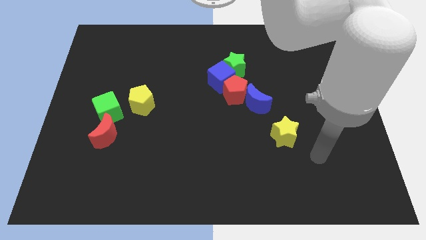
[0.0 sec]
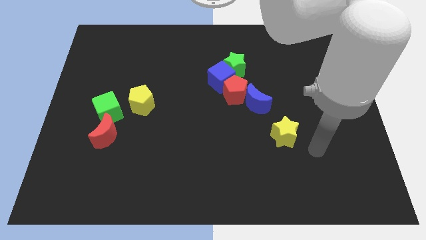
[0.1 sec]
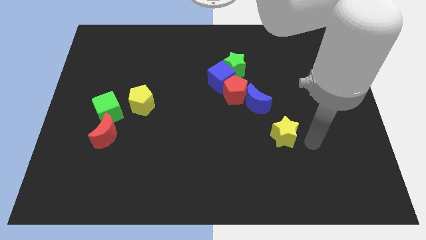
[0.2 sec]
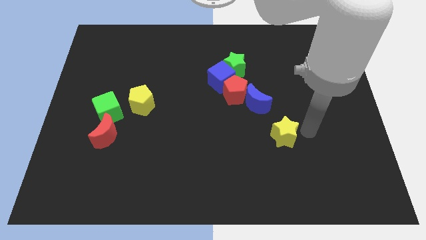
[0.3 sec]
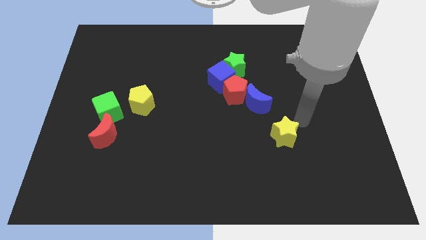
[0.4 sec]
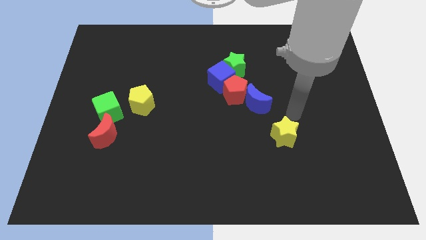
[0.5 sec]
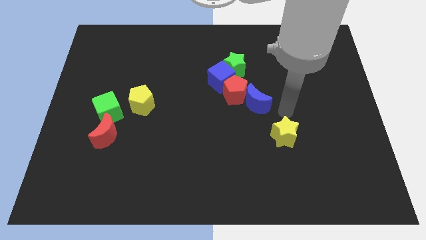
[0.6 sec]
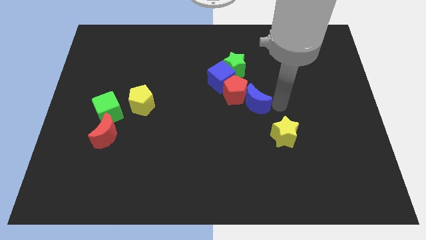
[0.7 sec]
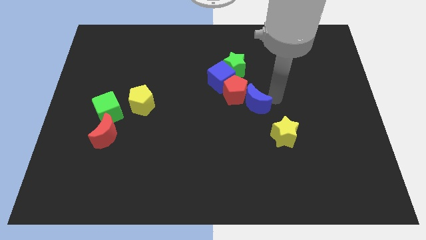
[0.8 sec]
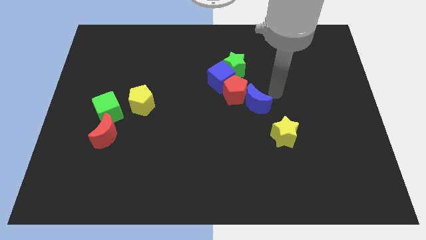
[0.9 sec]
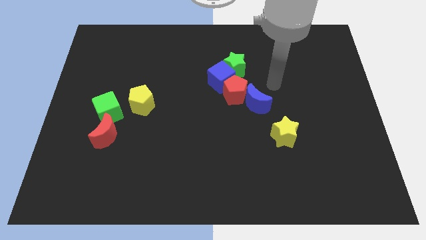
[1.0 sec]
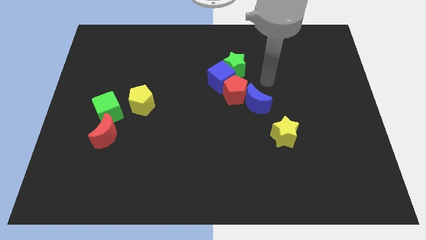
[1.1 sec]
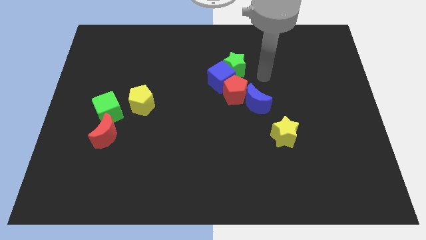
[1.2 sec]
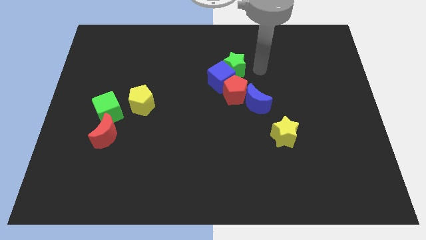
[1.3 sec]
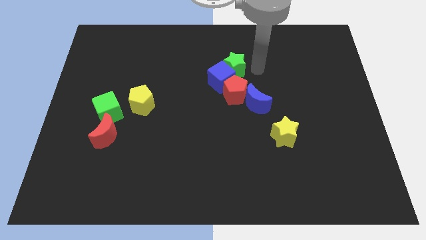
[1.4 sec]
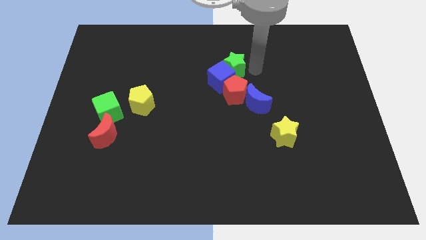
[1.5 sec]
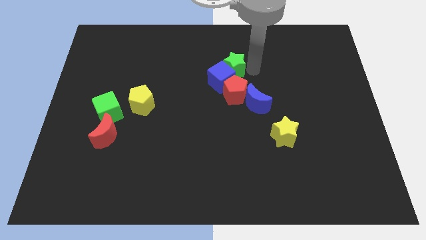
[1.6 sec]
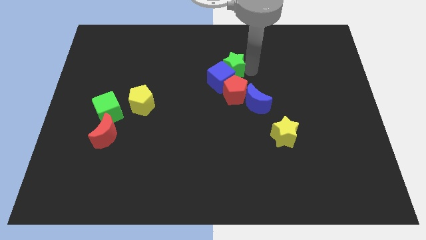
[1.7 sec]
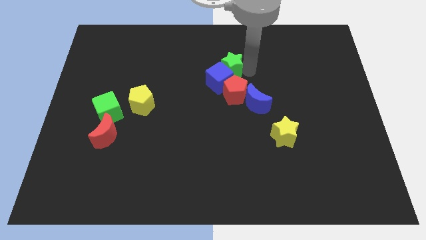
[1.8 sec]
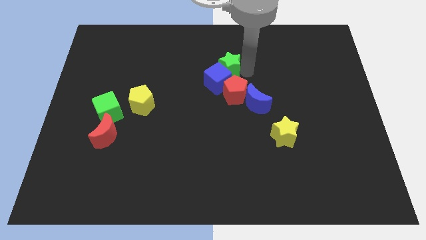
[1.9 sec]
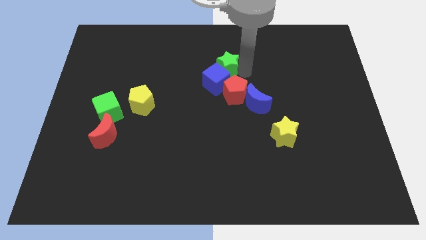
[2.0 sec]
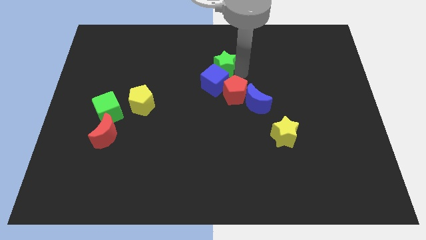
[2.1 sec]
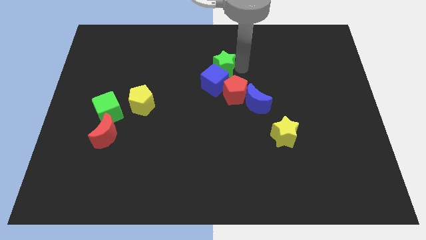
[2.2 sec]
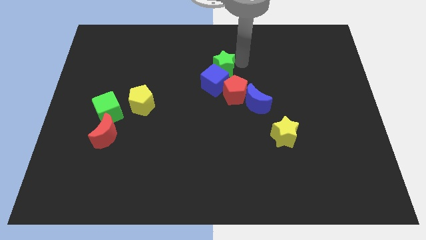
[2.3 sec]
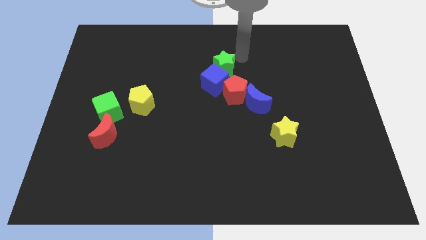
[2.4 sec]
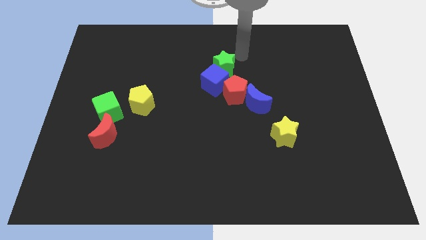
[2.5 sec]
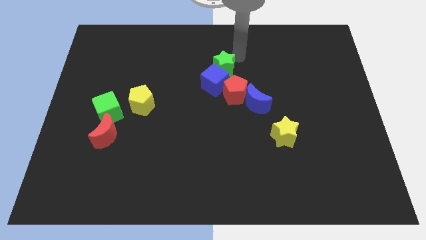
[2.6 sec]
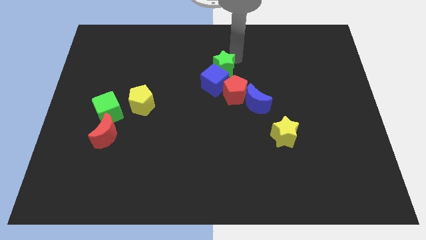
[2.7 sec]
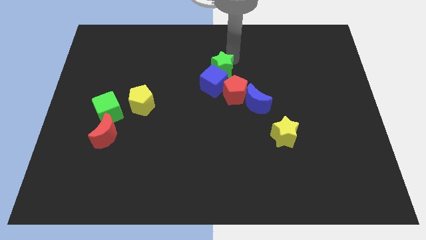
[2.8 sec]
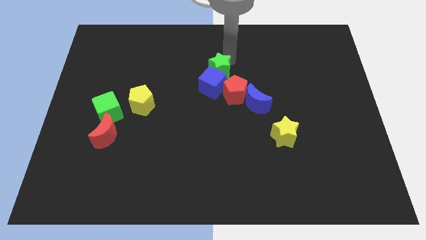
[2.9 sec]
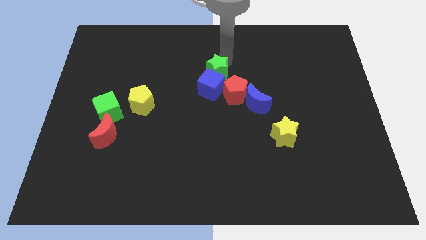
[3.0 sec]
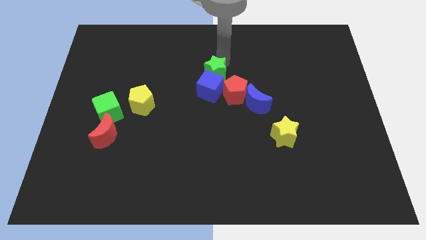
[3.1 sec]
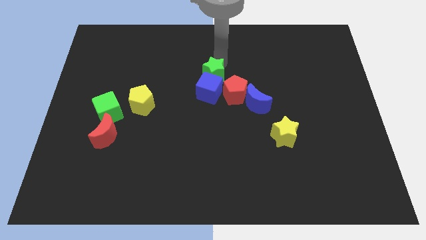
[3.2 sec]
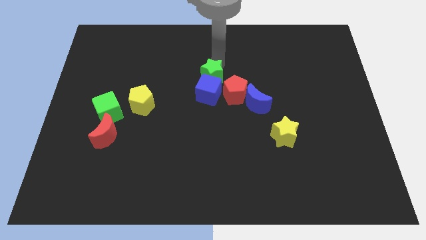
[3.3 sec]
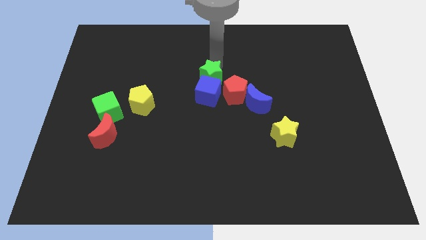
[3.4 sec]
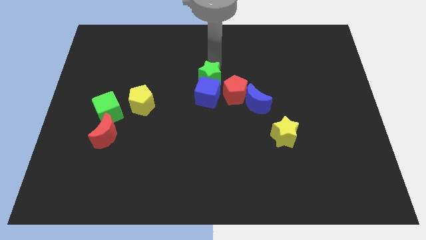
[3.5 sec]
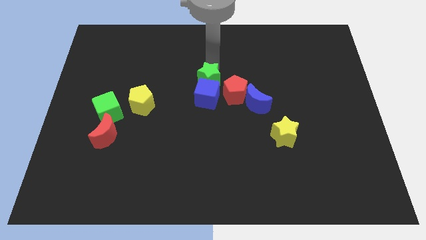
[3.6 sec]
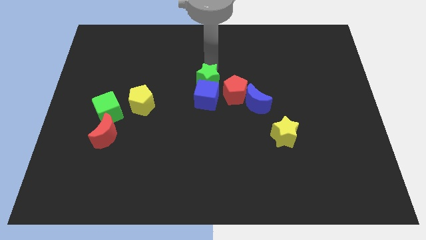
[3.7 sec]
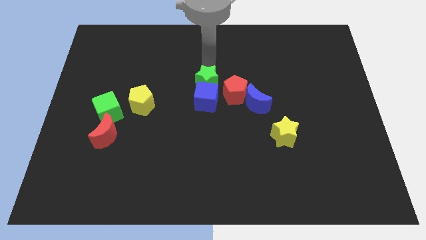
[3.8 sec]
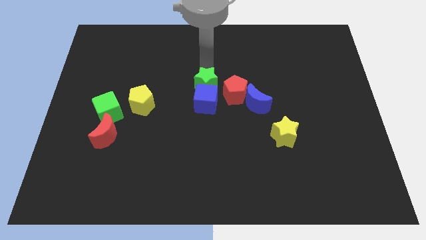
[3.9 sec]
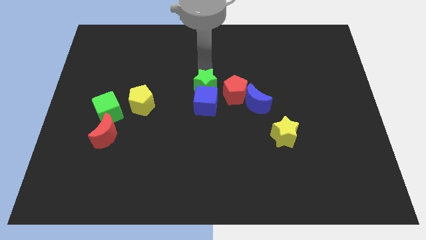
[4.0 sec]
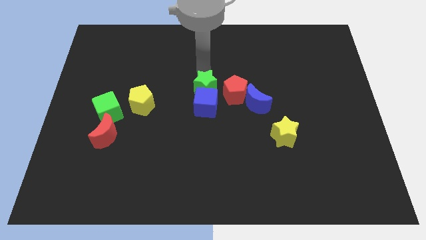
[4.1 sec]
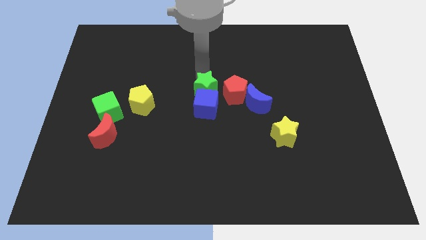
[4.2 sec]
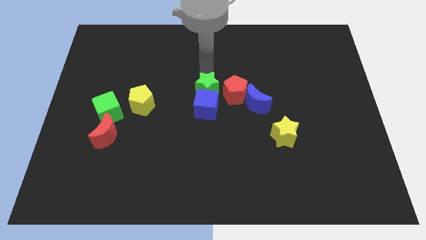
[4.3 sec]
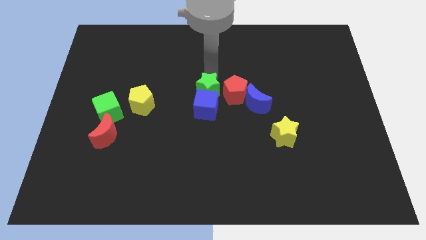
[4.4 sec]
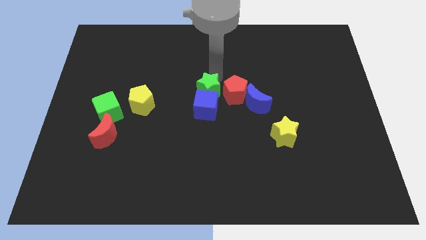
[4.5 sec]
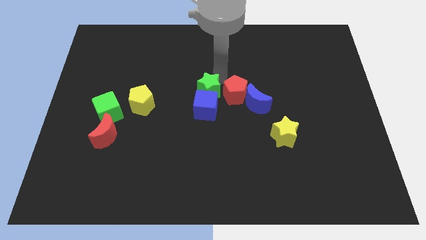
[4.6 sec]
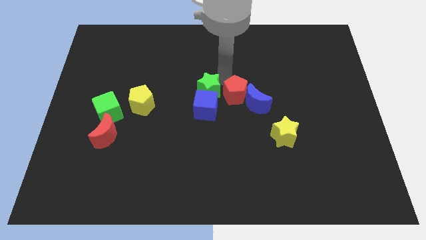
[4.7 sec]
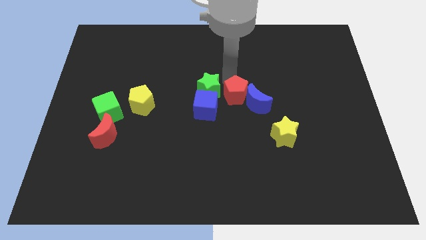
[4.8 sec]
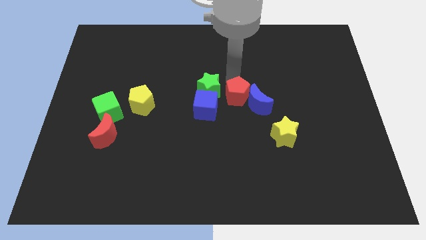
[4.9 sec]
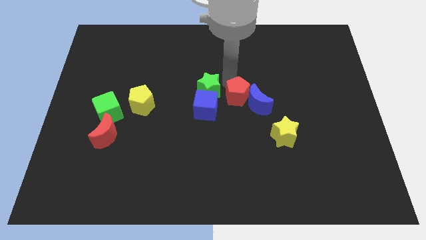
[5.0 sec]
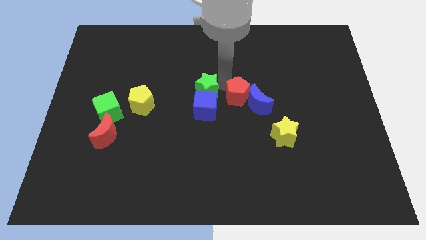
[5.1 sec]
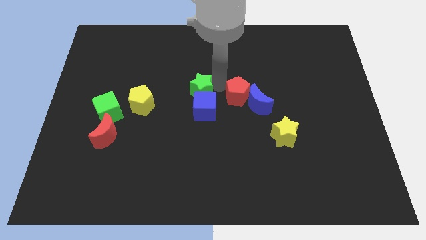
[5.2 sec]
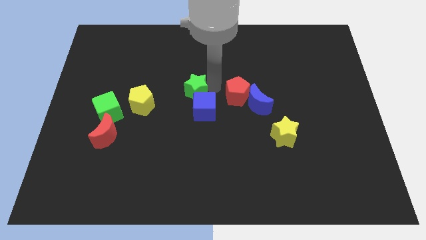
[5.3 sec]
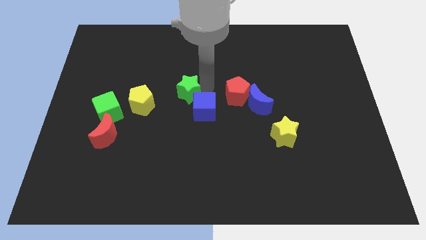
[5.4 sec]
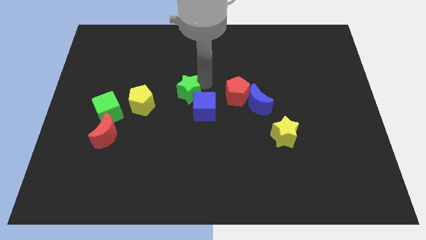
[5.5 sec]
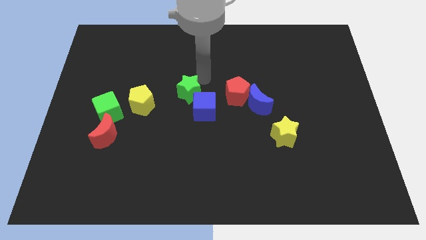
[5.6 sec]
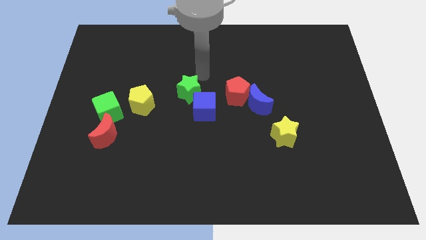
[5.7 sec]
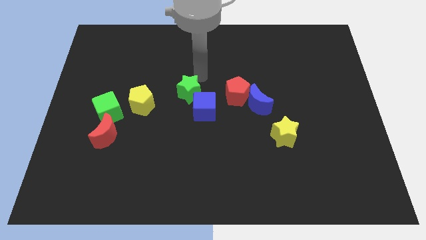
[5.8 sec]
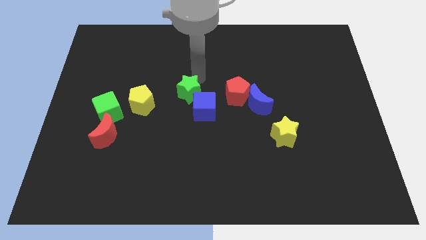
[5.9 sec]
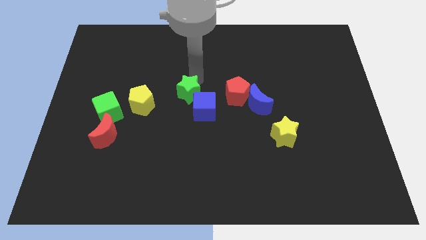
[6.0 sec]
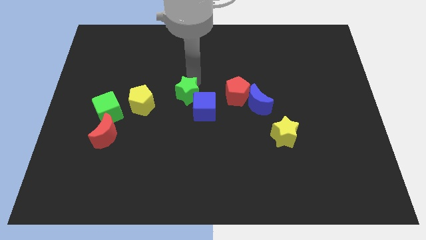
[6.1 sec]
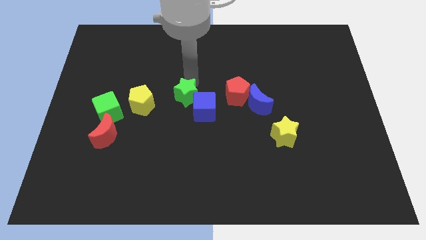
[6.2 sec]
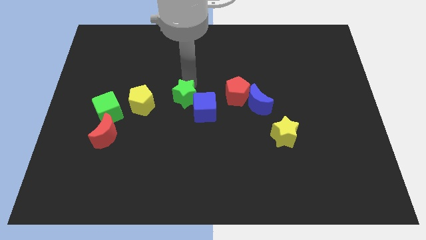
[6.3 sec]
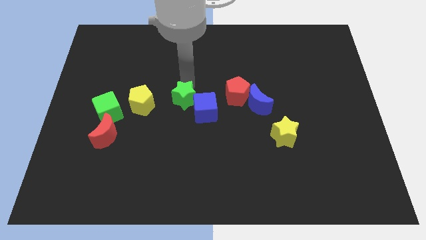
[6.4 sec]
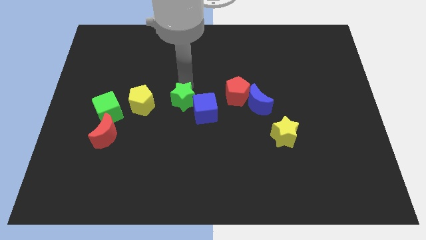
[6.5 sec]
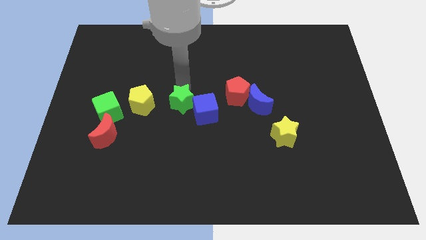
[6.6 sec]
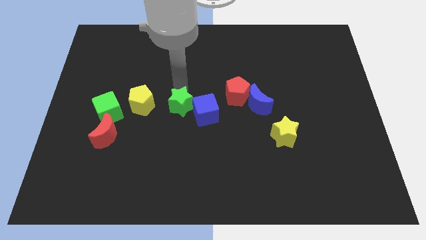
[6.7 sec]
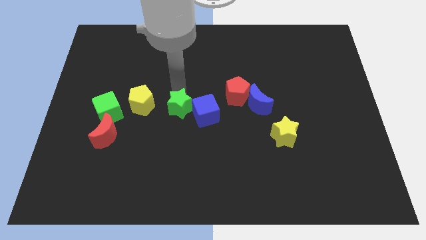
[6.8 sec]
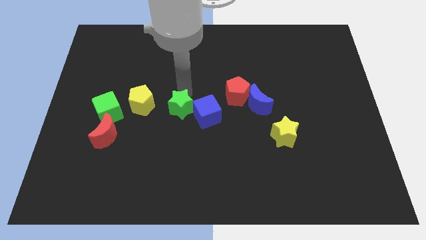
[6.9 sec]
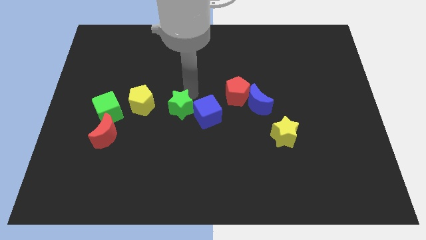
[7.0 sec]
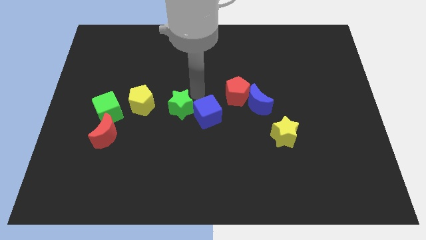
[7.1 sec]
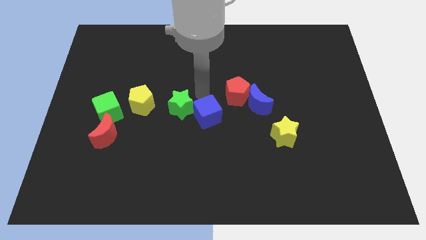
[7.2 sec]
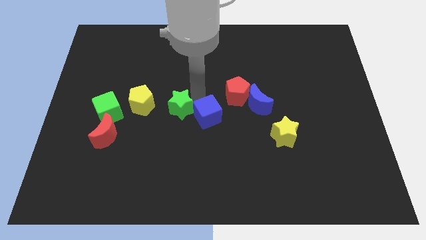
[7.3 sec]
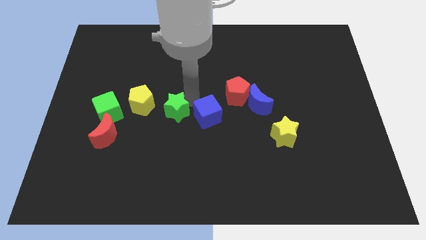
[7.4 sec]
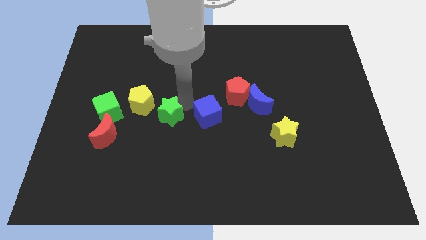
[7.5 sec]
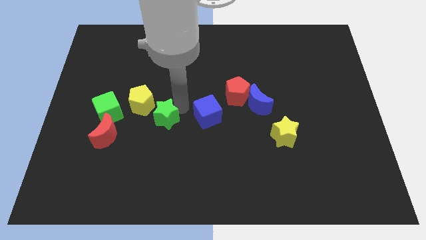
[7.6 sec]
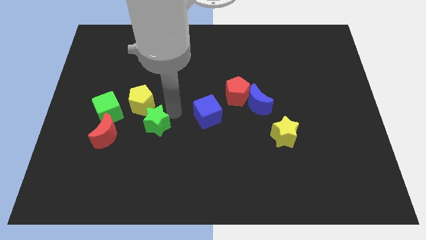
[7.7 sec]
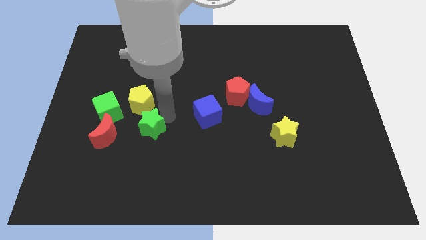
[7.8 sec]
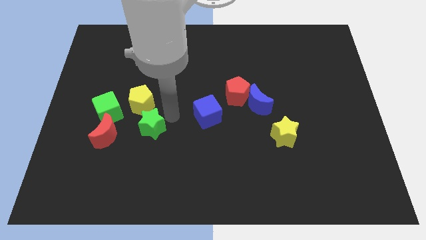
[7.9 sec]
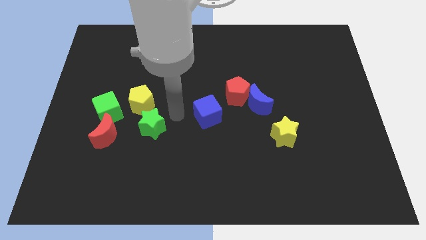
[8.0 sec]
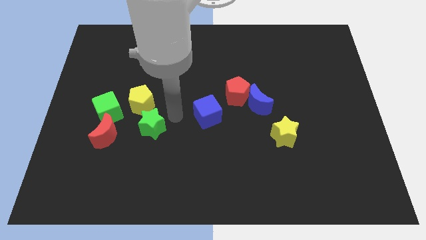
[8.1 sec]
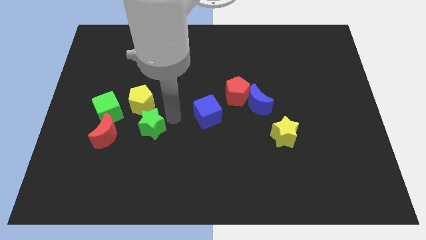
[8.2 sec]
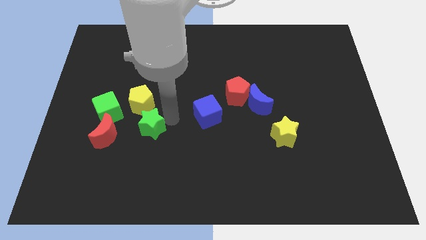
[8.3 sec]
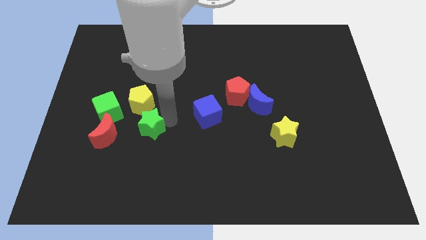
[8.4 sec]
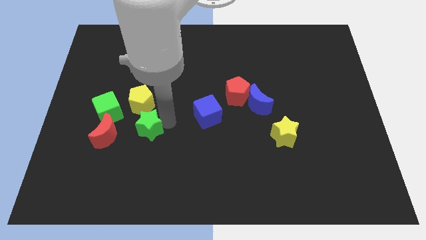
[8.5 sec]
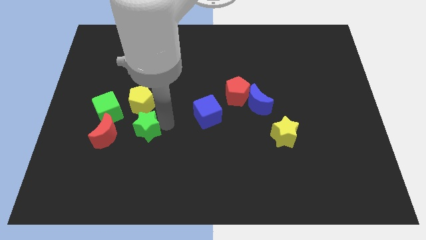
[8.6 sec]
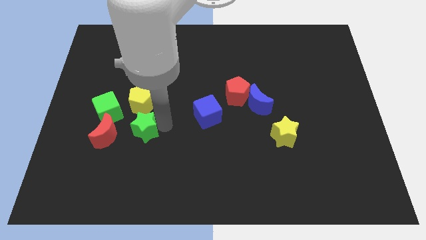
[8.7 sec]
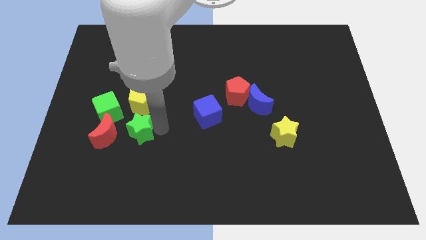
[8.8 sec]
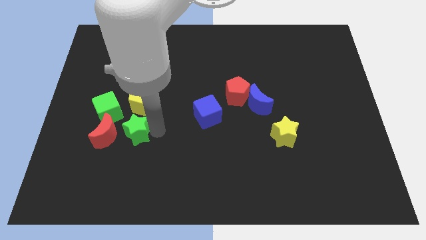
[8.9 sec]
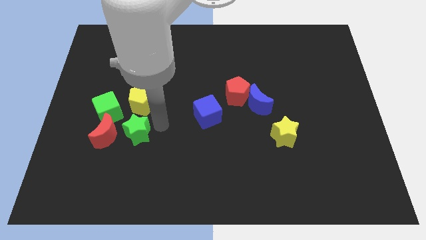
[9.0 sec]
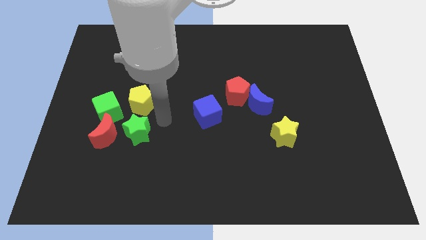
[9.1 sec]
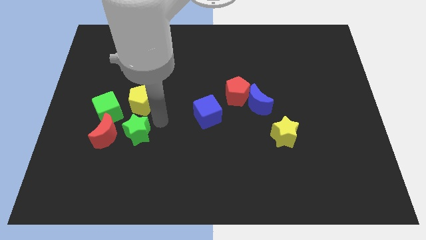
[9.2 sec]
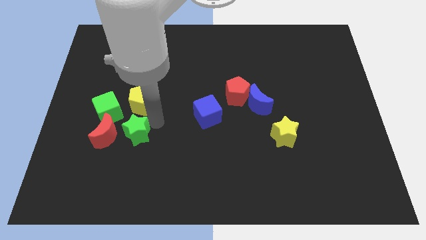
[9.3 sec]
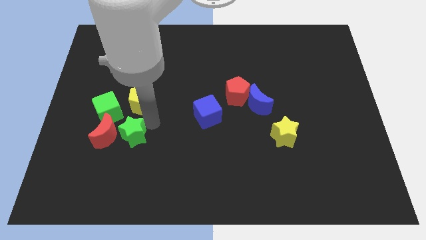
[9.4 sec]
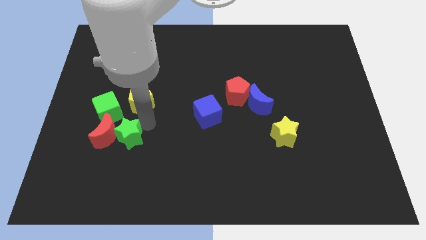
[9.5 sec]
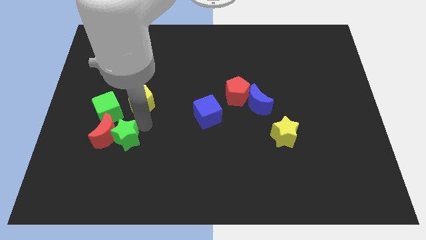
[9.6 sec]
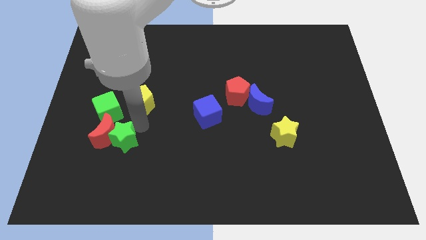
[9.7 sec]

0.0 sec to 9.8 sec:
move the green star below the green cube
